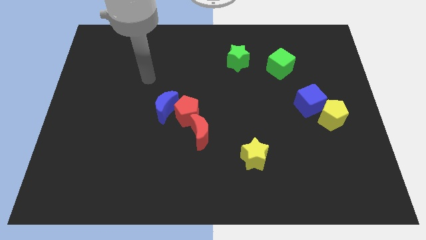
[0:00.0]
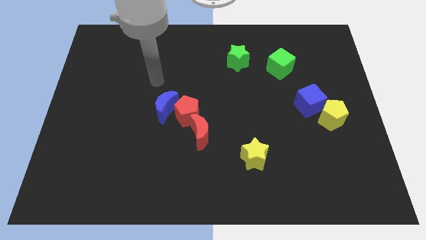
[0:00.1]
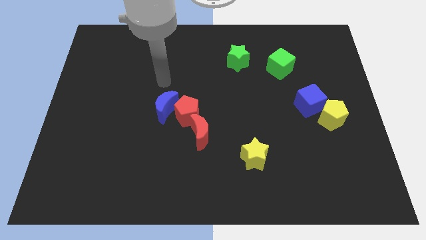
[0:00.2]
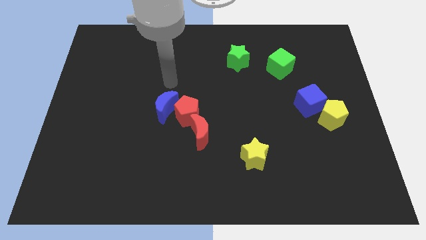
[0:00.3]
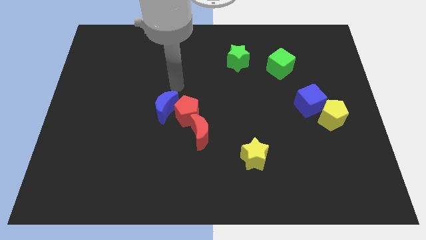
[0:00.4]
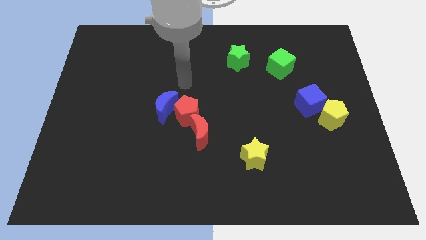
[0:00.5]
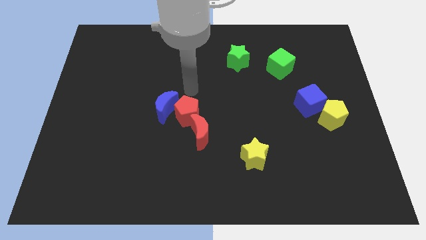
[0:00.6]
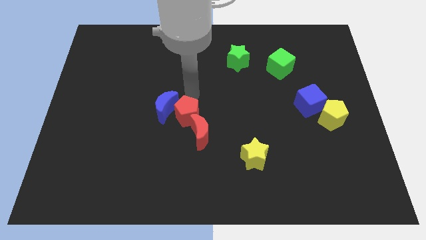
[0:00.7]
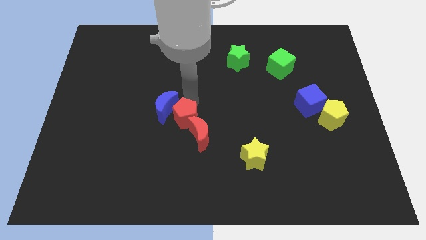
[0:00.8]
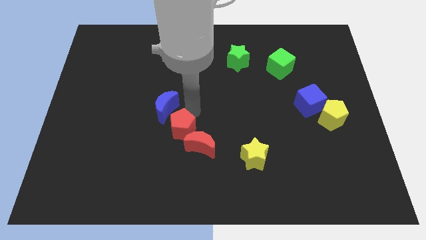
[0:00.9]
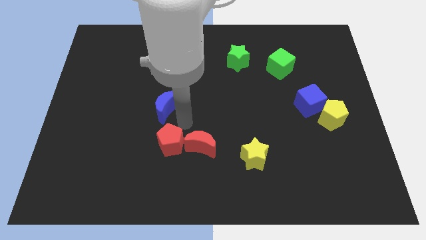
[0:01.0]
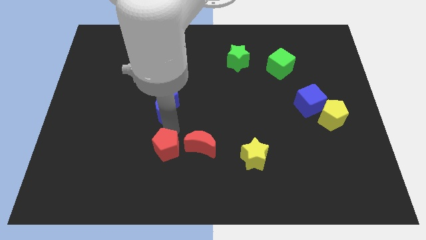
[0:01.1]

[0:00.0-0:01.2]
move the blue moon away from the red pentagon

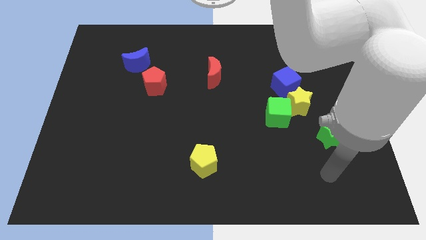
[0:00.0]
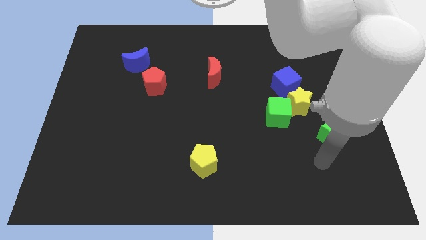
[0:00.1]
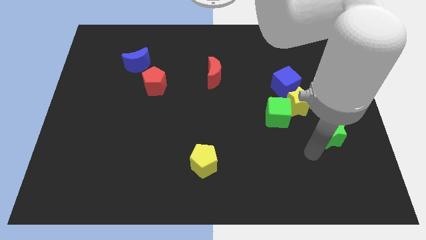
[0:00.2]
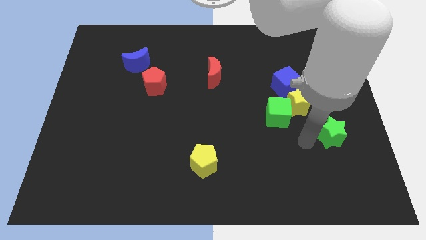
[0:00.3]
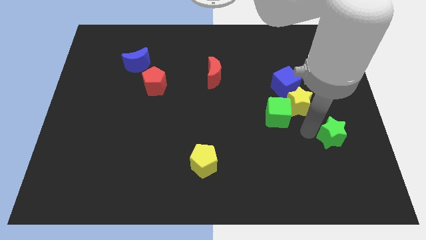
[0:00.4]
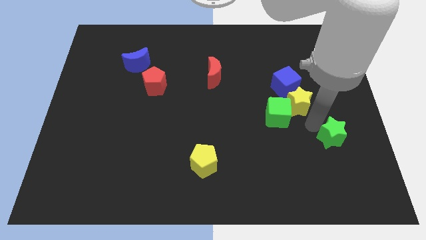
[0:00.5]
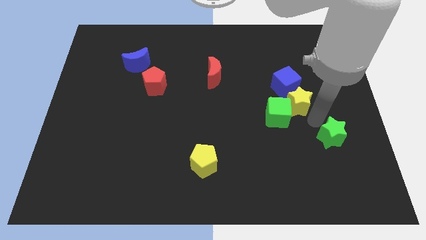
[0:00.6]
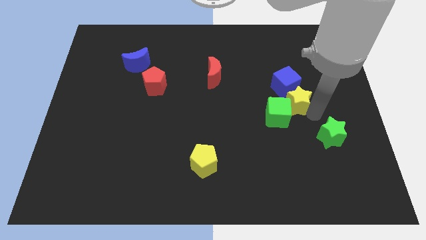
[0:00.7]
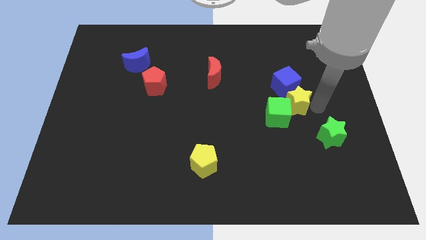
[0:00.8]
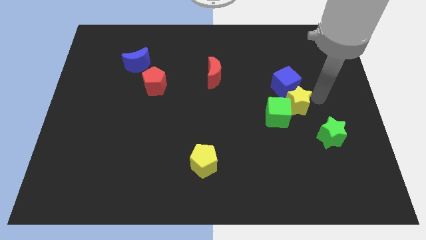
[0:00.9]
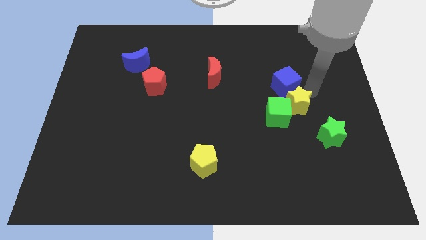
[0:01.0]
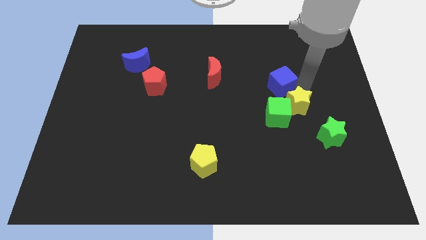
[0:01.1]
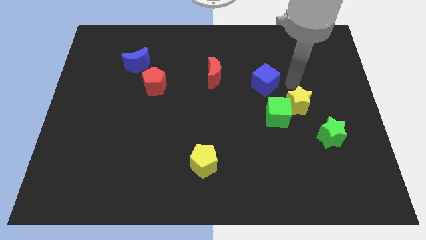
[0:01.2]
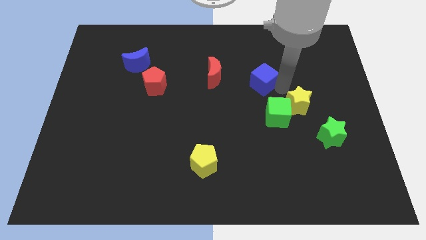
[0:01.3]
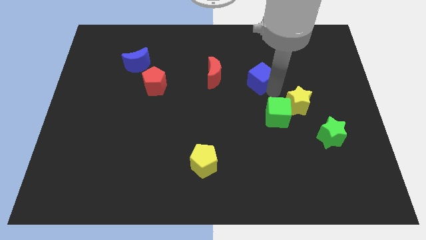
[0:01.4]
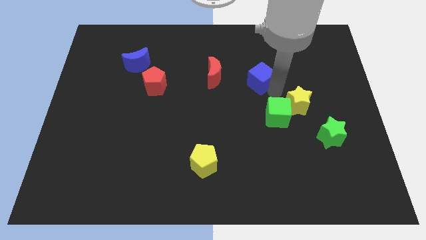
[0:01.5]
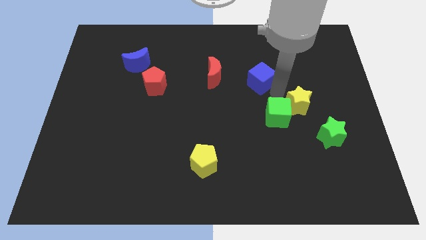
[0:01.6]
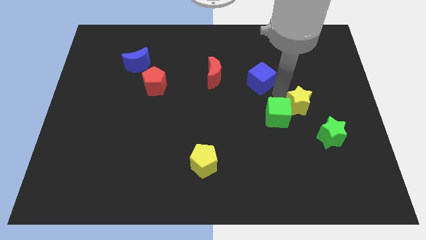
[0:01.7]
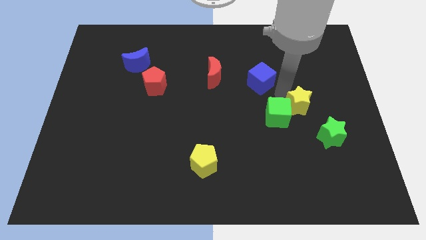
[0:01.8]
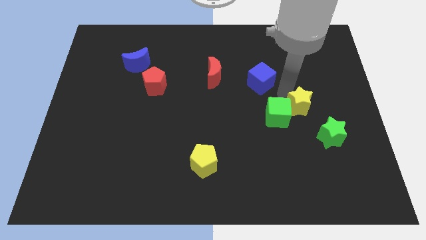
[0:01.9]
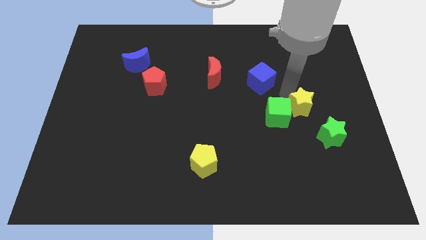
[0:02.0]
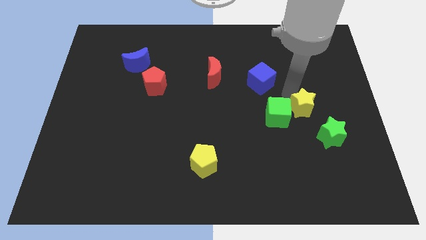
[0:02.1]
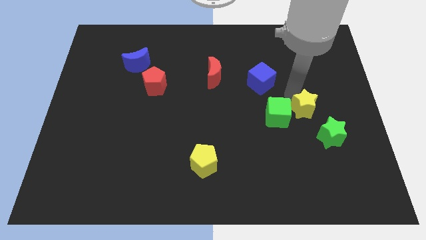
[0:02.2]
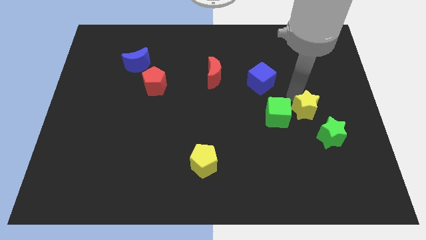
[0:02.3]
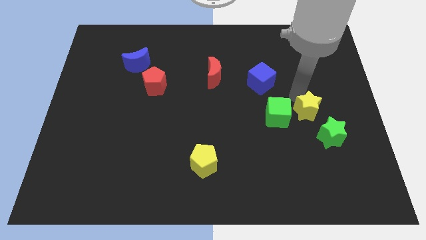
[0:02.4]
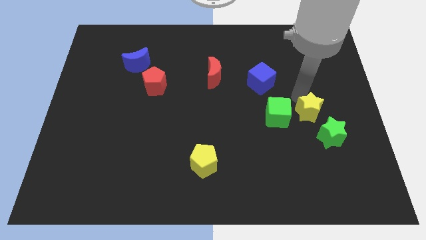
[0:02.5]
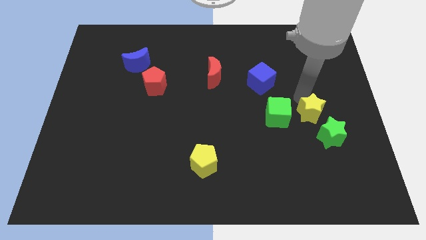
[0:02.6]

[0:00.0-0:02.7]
pull the yellow star apart from the green cube and blue cube

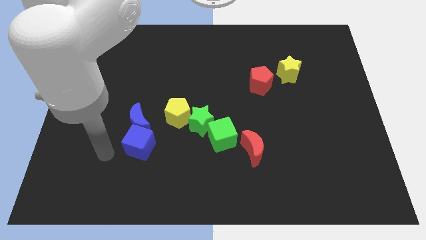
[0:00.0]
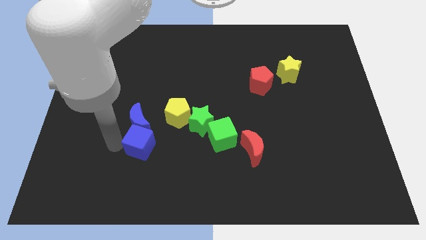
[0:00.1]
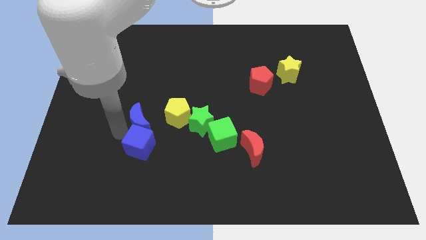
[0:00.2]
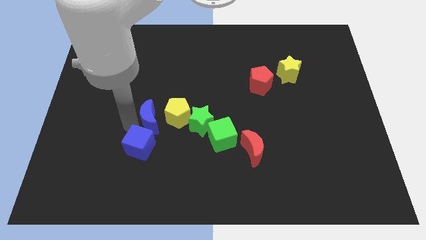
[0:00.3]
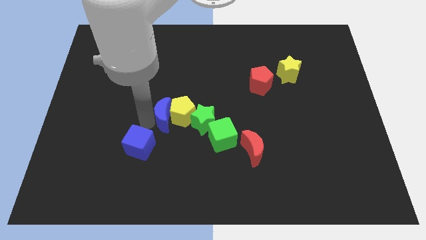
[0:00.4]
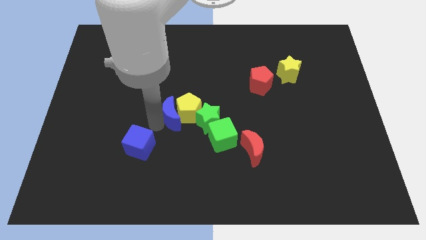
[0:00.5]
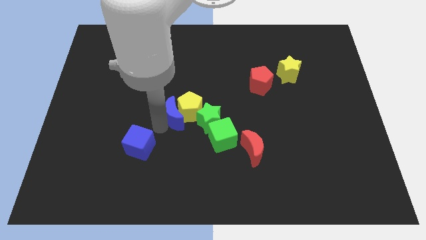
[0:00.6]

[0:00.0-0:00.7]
separate the blue cube from the blue moon

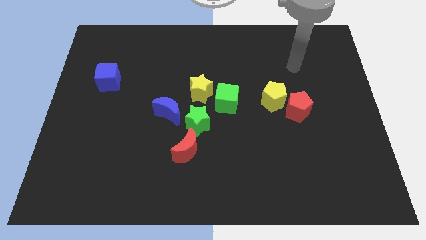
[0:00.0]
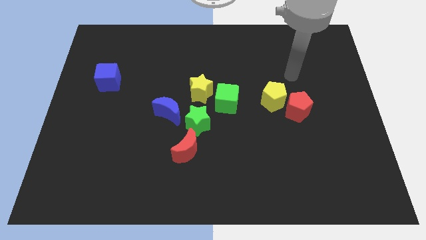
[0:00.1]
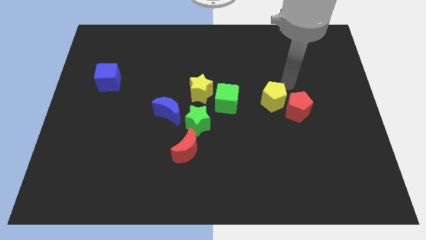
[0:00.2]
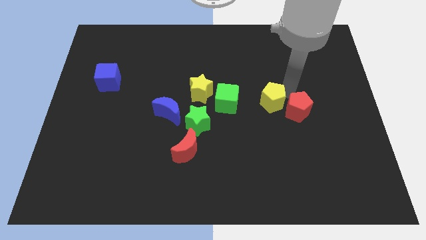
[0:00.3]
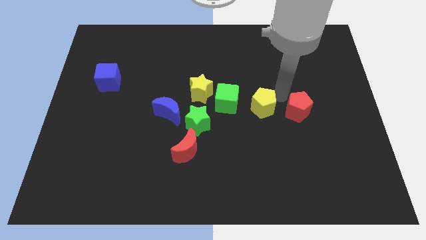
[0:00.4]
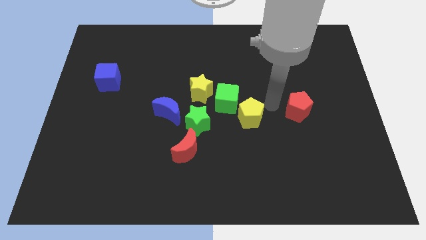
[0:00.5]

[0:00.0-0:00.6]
move the red pentagon away from the yellow pentagon

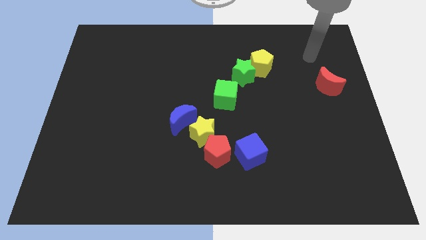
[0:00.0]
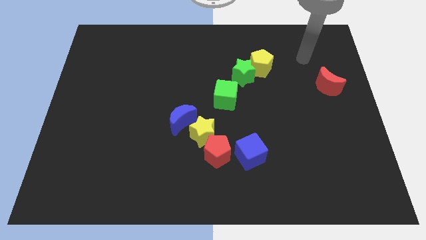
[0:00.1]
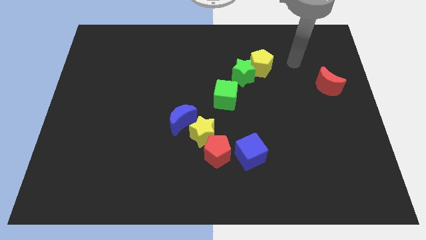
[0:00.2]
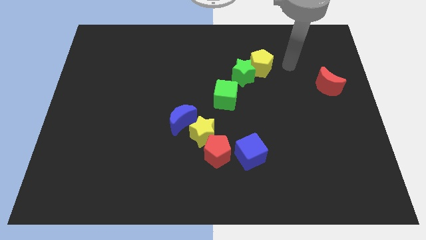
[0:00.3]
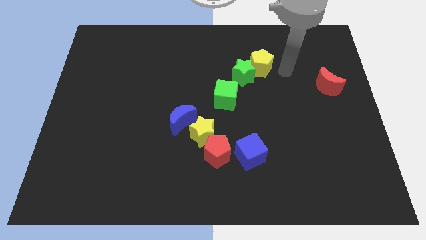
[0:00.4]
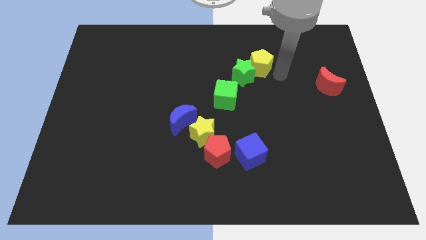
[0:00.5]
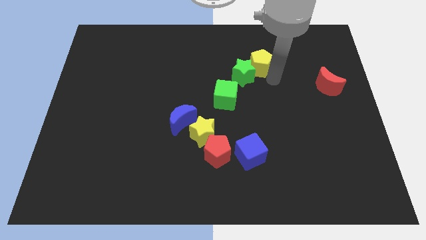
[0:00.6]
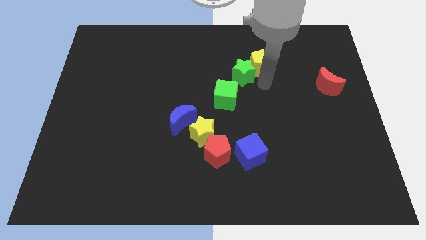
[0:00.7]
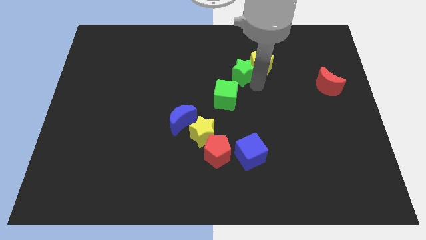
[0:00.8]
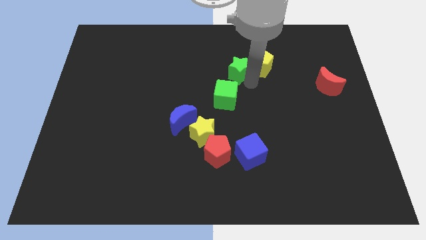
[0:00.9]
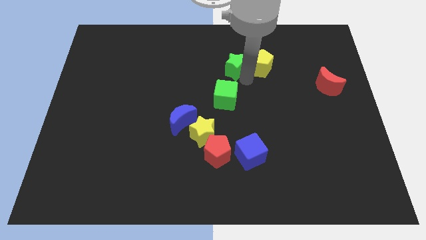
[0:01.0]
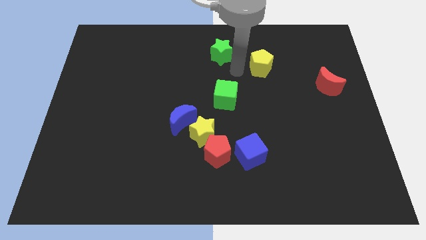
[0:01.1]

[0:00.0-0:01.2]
pull the yellow pentagon apart from the green star

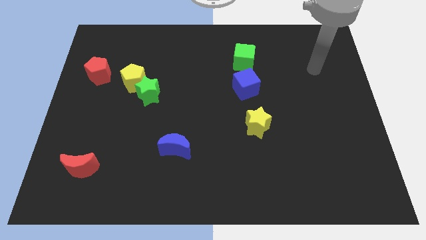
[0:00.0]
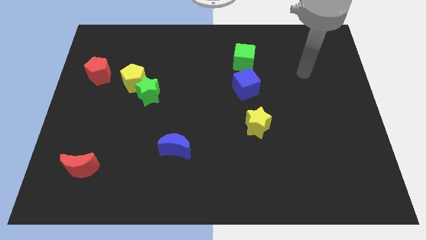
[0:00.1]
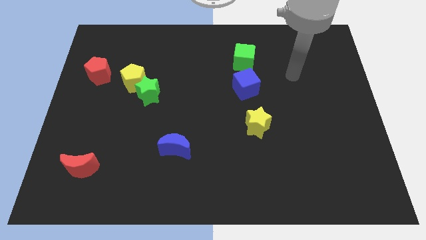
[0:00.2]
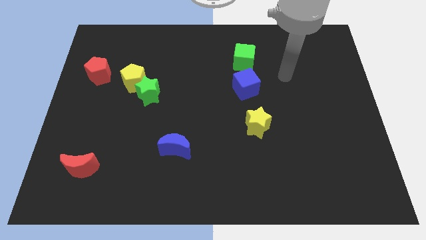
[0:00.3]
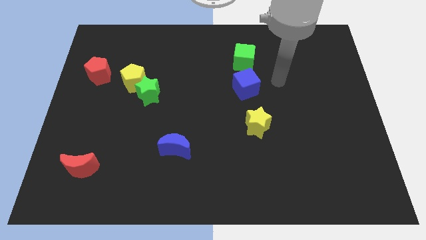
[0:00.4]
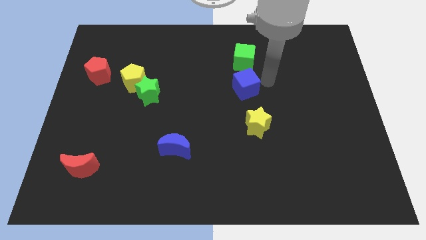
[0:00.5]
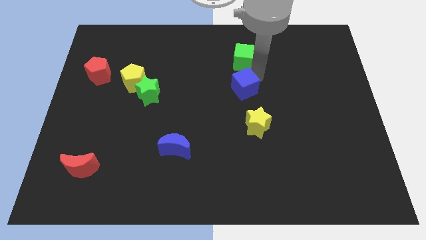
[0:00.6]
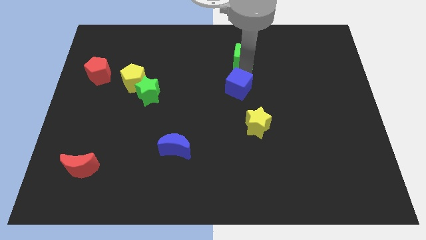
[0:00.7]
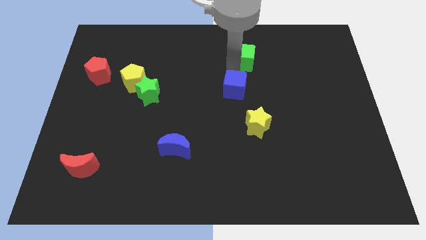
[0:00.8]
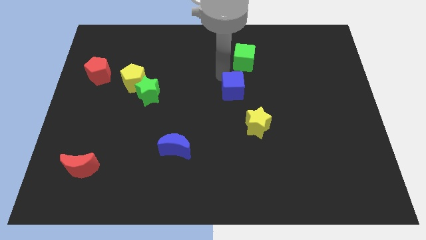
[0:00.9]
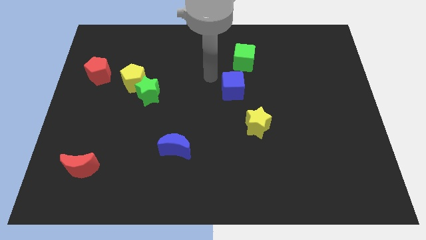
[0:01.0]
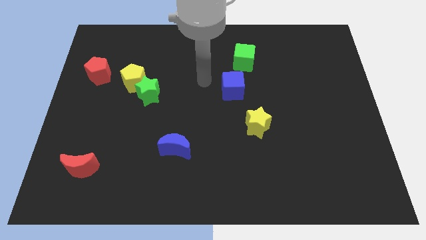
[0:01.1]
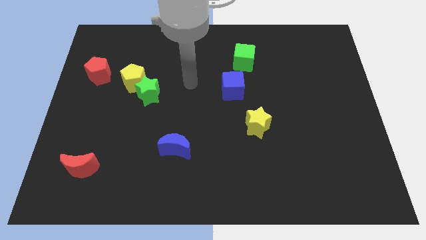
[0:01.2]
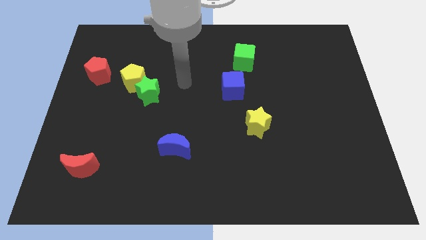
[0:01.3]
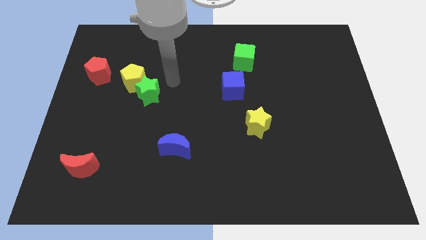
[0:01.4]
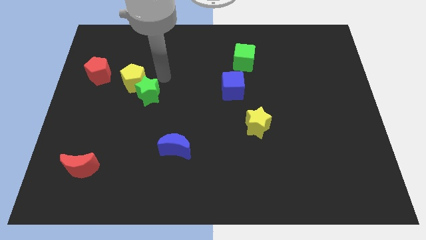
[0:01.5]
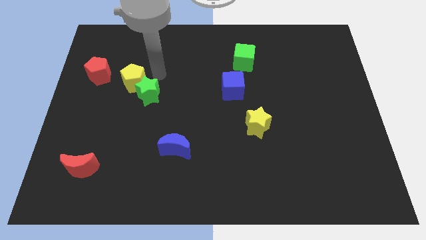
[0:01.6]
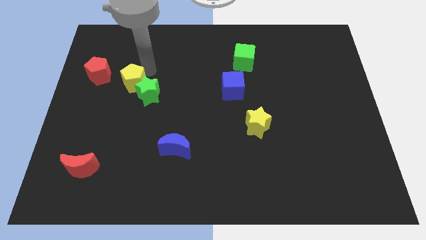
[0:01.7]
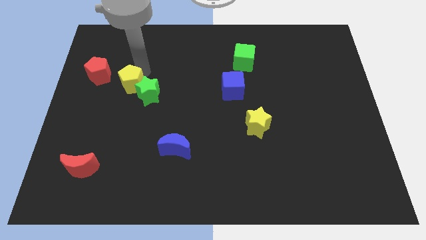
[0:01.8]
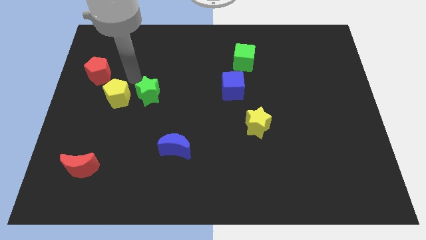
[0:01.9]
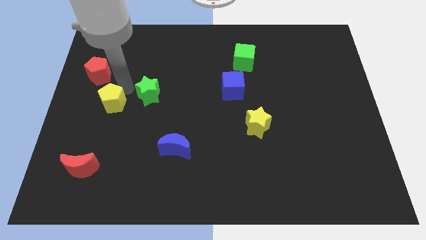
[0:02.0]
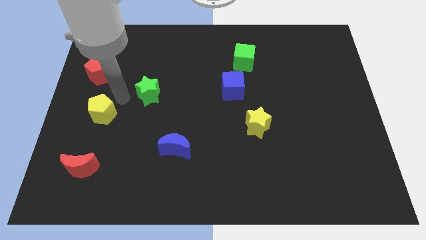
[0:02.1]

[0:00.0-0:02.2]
move the green star away from the yellow pentagon

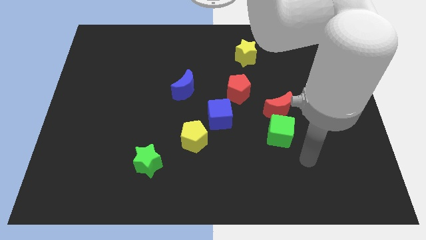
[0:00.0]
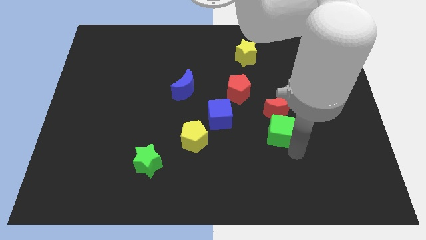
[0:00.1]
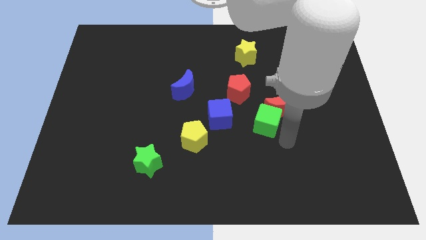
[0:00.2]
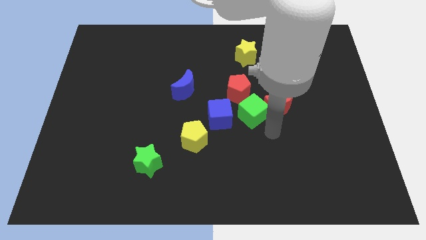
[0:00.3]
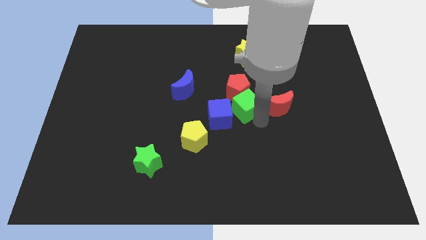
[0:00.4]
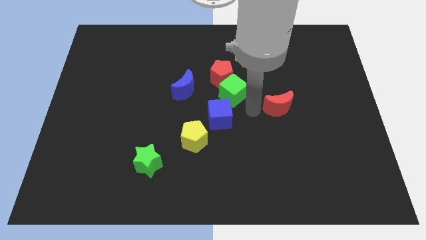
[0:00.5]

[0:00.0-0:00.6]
separate the red moon from the green cube
